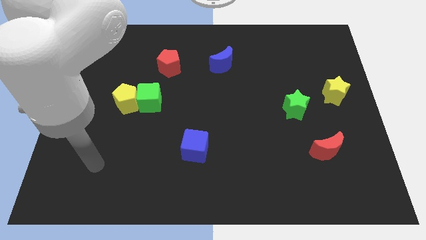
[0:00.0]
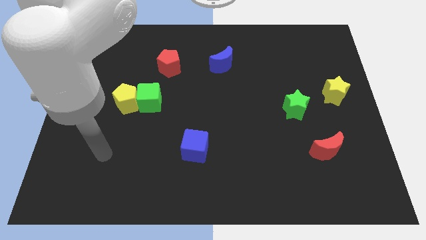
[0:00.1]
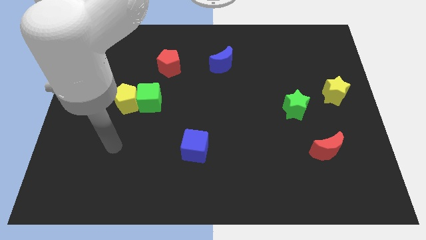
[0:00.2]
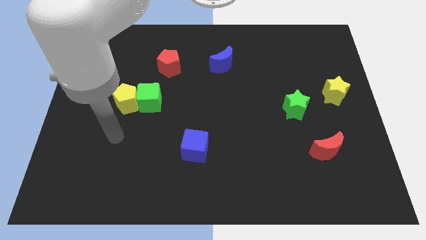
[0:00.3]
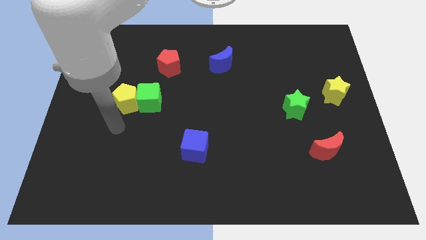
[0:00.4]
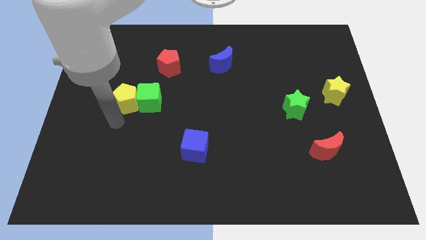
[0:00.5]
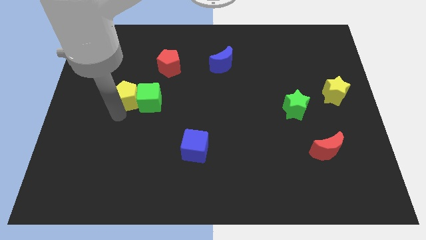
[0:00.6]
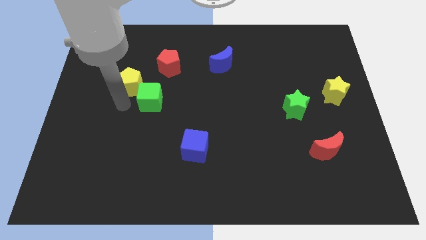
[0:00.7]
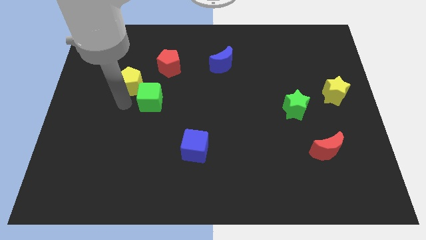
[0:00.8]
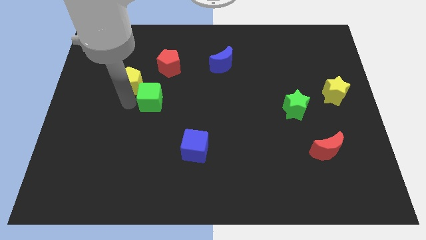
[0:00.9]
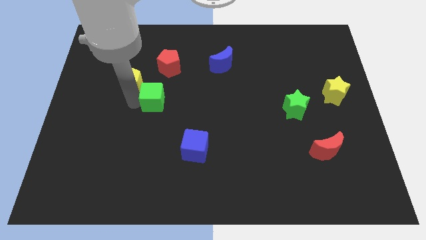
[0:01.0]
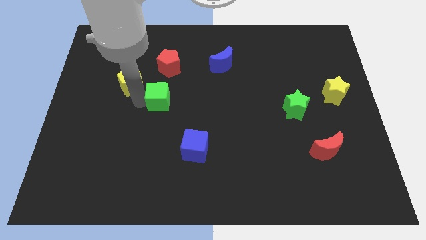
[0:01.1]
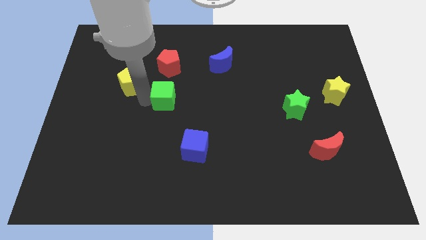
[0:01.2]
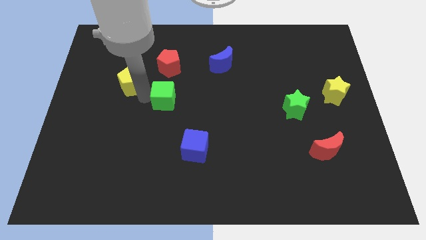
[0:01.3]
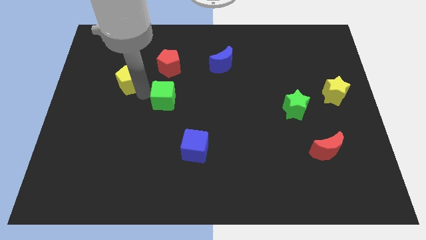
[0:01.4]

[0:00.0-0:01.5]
separate the green cube from the yellow pentagon

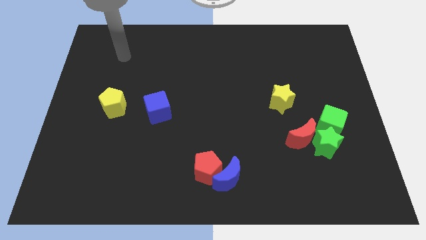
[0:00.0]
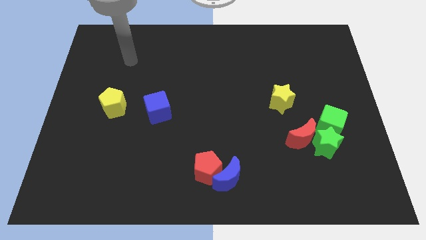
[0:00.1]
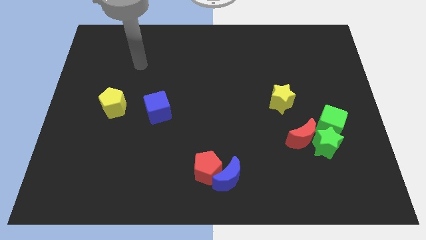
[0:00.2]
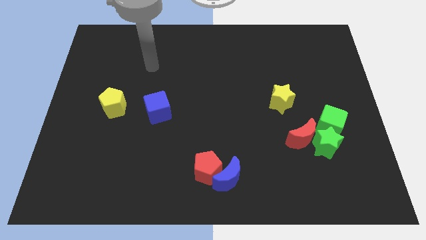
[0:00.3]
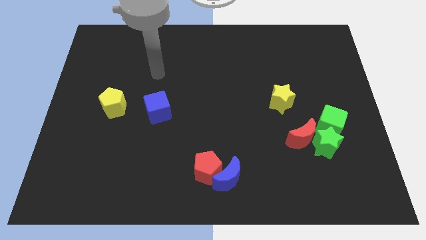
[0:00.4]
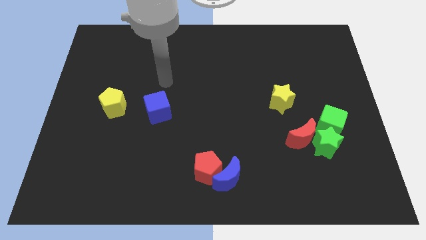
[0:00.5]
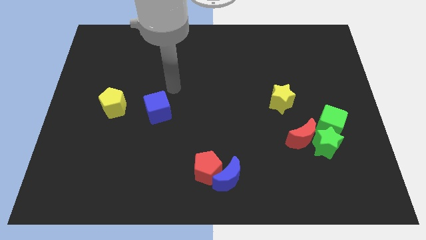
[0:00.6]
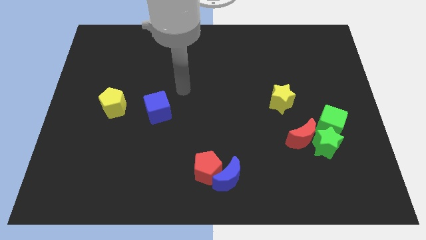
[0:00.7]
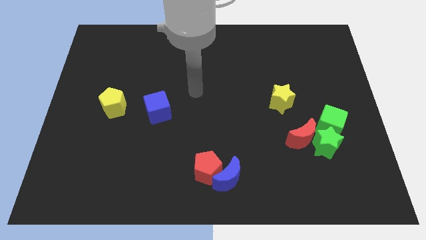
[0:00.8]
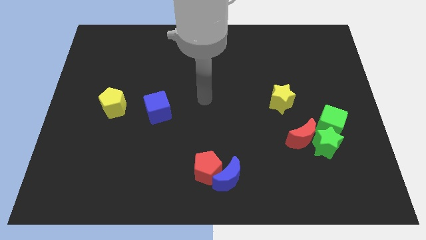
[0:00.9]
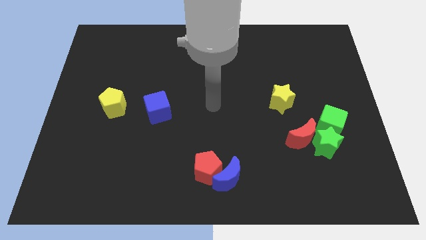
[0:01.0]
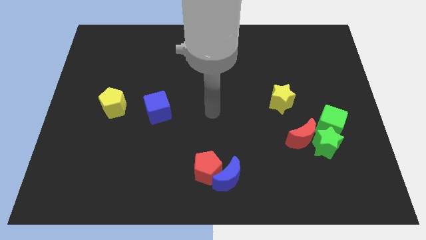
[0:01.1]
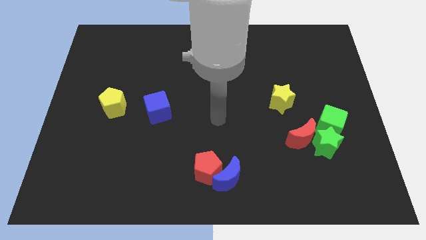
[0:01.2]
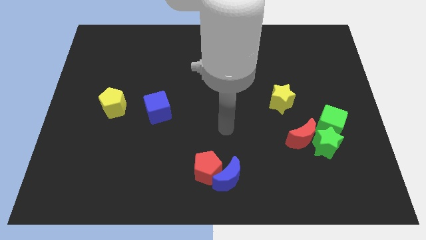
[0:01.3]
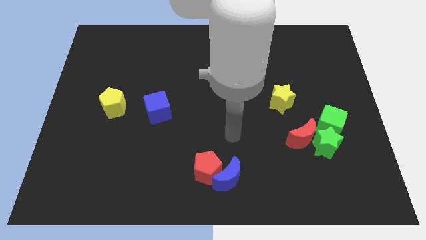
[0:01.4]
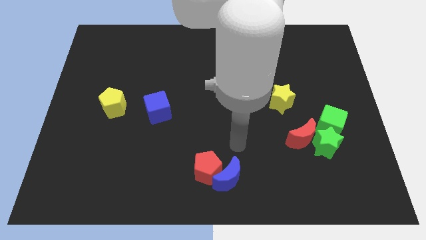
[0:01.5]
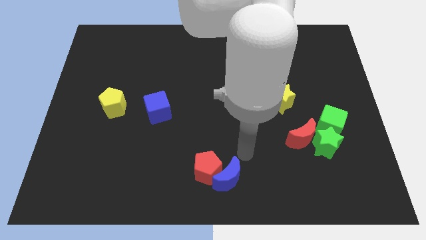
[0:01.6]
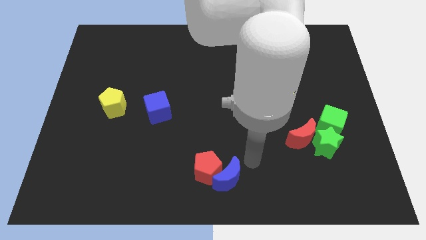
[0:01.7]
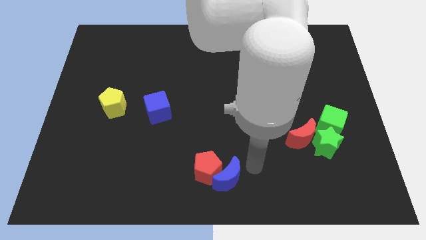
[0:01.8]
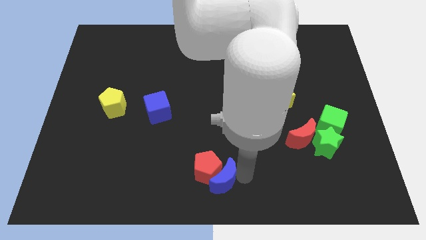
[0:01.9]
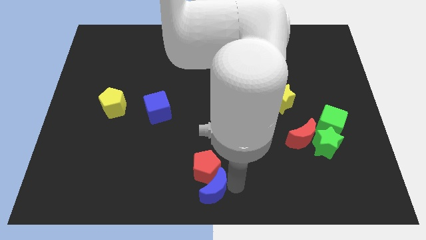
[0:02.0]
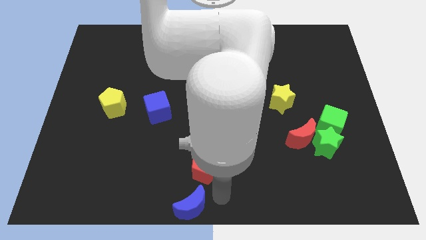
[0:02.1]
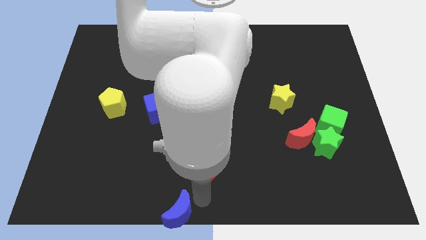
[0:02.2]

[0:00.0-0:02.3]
separate the red pentagon from the blue moon

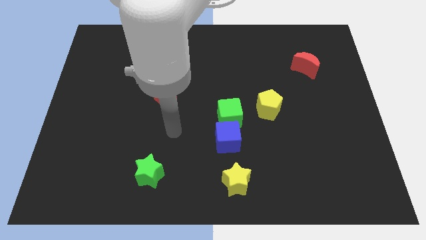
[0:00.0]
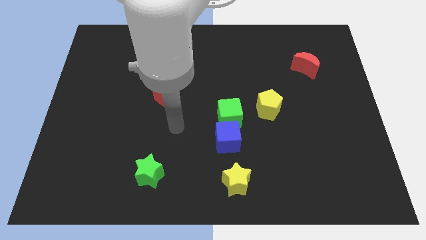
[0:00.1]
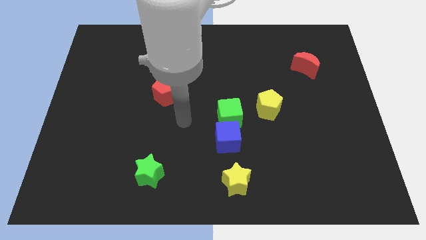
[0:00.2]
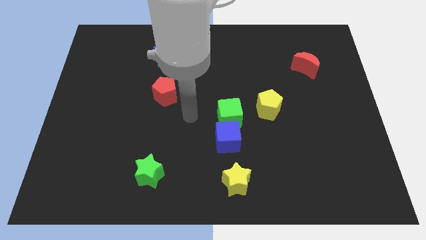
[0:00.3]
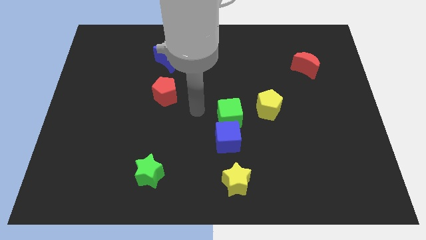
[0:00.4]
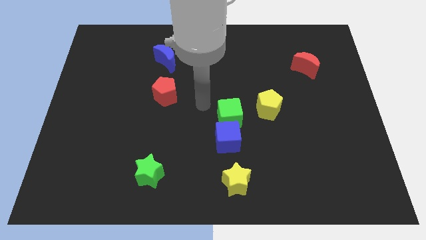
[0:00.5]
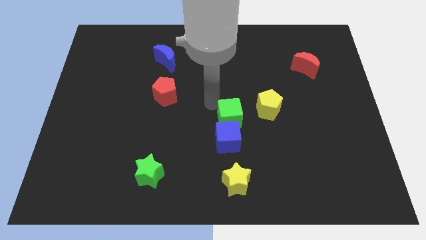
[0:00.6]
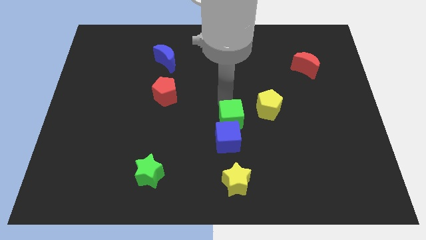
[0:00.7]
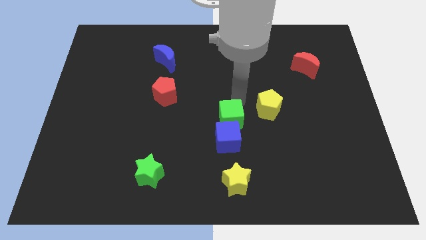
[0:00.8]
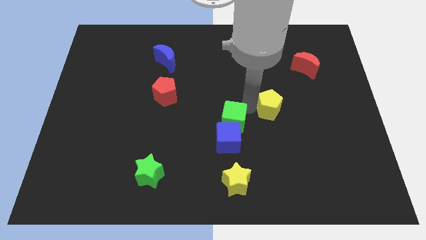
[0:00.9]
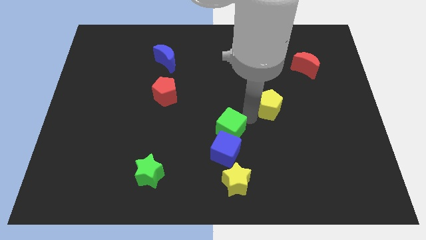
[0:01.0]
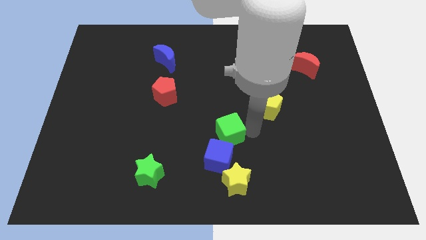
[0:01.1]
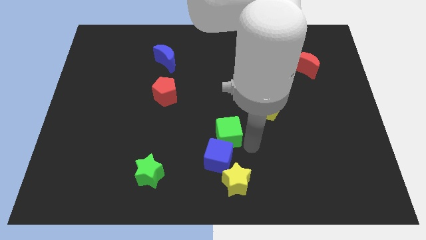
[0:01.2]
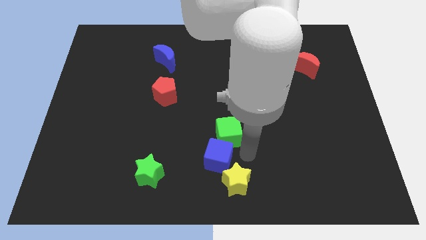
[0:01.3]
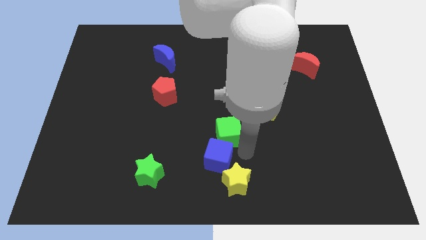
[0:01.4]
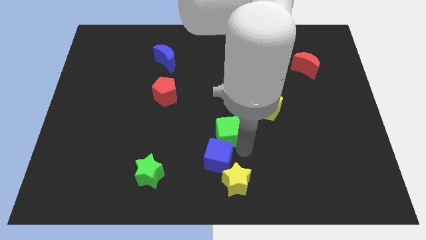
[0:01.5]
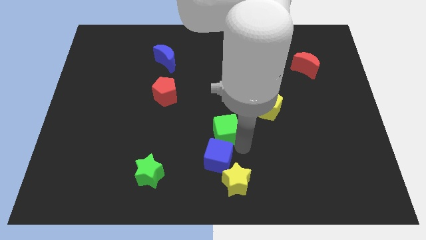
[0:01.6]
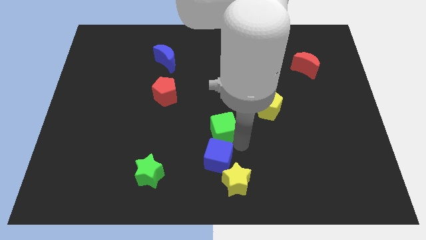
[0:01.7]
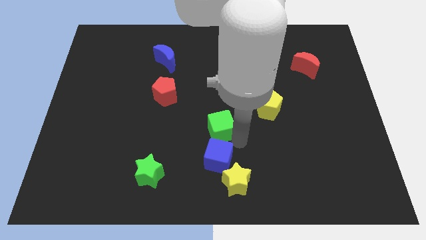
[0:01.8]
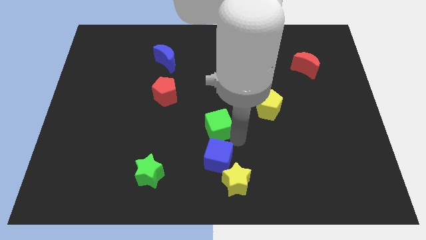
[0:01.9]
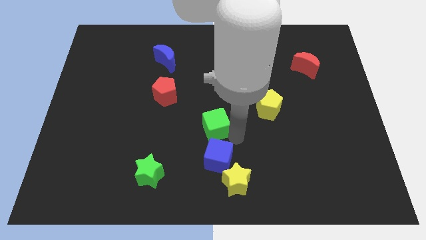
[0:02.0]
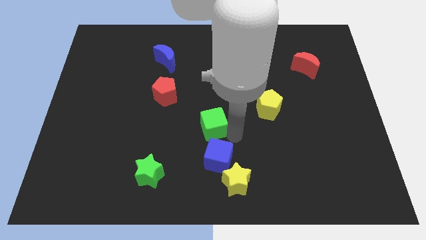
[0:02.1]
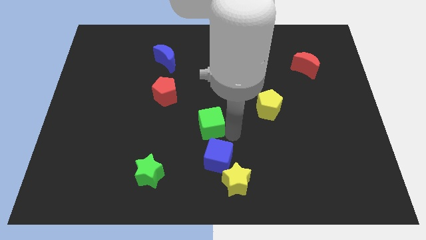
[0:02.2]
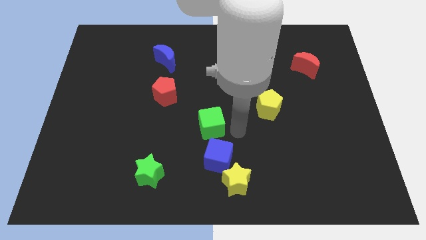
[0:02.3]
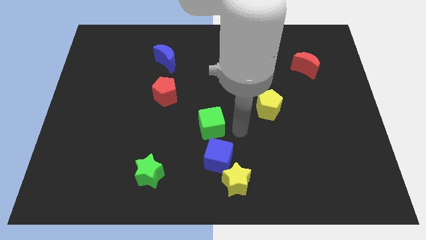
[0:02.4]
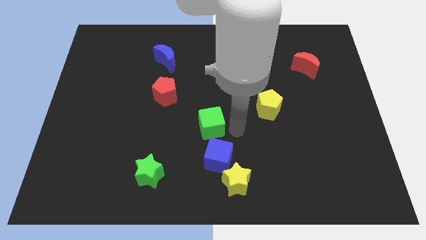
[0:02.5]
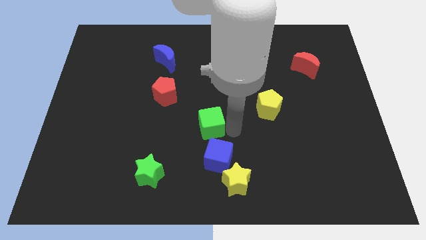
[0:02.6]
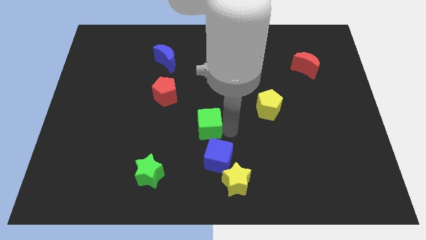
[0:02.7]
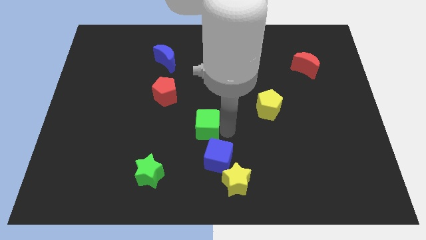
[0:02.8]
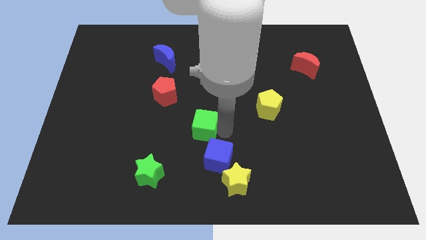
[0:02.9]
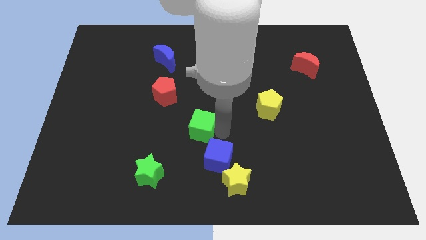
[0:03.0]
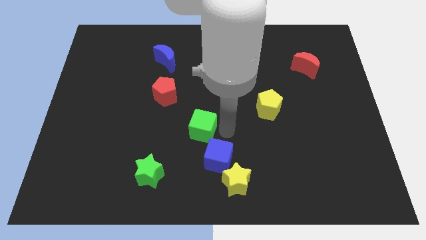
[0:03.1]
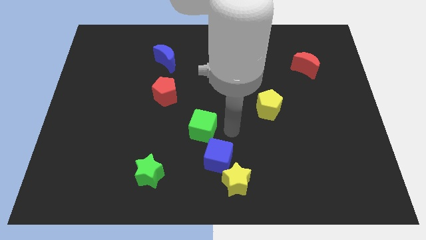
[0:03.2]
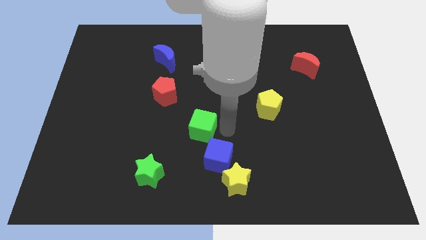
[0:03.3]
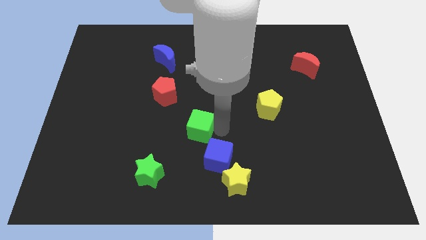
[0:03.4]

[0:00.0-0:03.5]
separate the green cube from the blue cube and yellow pentagon

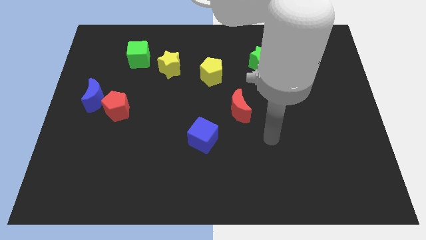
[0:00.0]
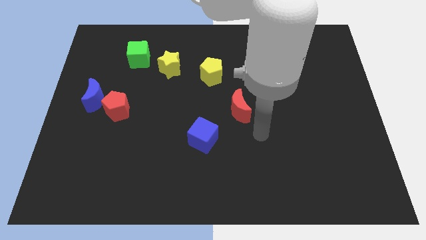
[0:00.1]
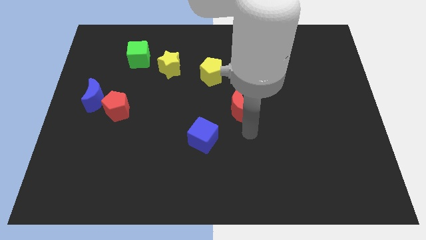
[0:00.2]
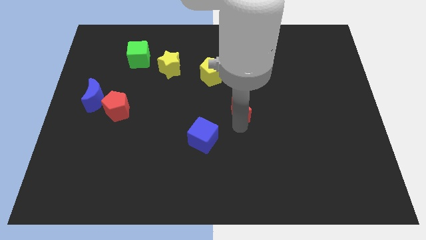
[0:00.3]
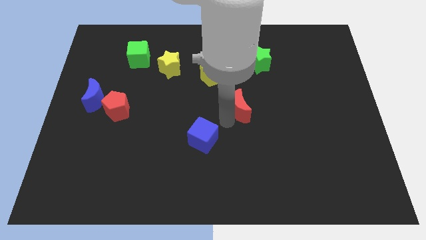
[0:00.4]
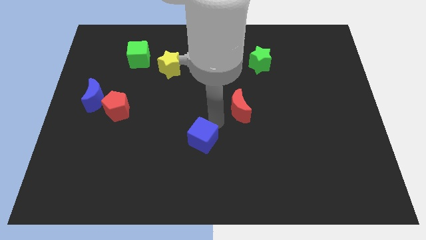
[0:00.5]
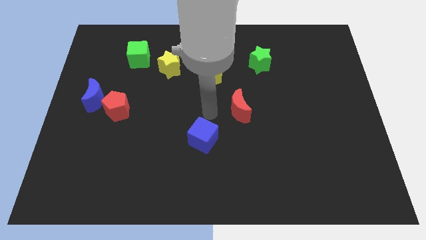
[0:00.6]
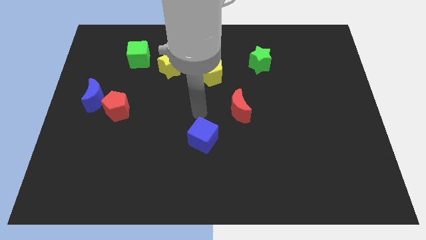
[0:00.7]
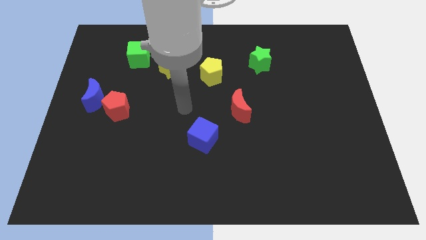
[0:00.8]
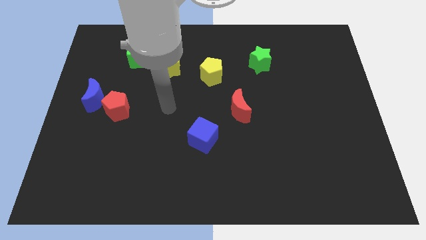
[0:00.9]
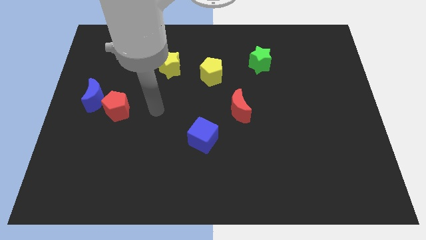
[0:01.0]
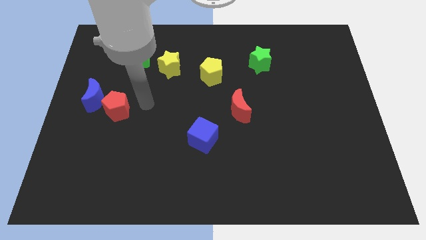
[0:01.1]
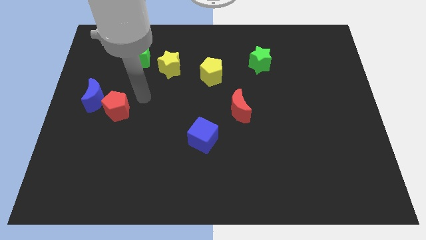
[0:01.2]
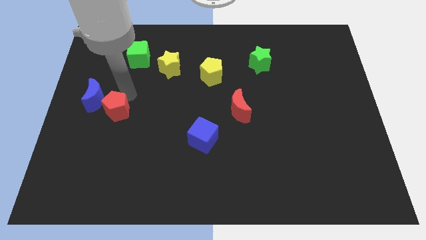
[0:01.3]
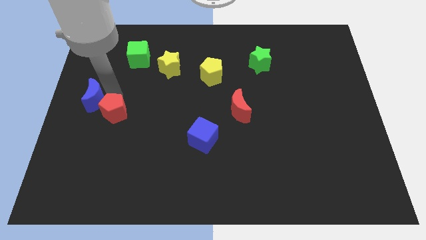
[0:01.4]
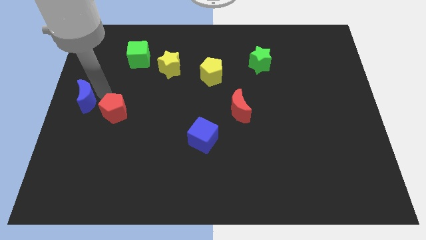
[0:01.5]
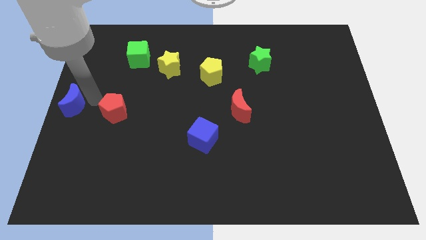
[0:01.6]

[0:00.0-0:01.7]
pull the red pentagon apart from the blue moon

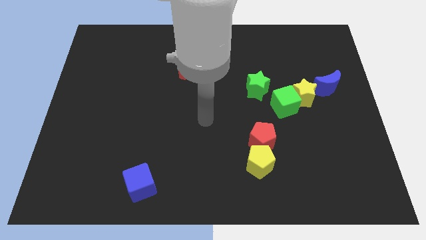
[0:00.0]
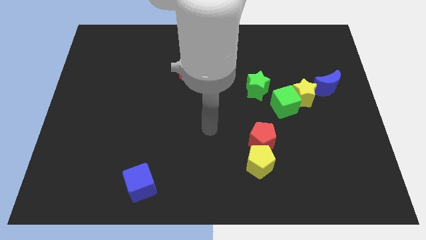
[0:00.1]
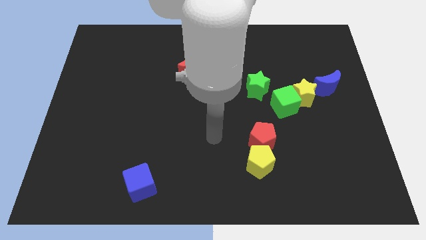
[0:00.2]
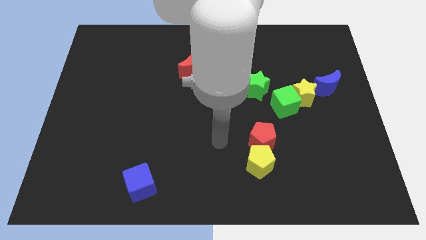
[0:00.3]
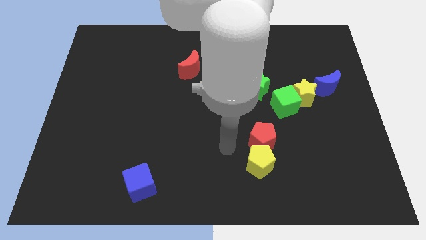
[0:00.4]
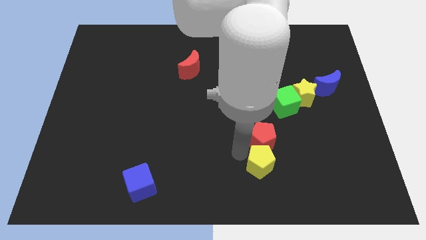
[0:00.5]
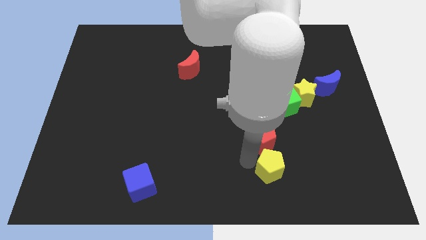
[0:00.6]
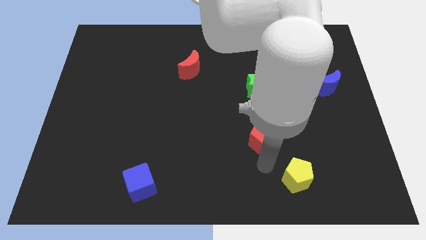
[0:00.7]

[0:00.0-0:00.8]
separate the red pentagon from the yellow pentagon
